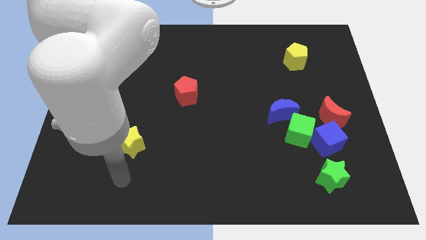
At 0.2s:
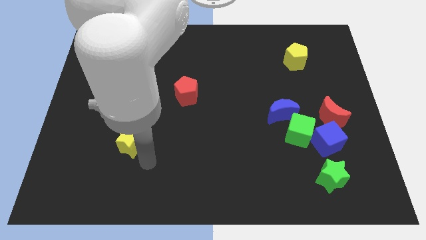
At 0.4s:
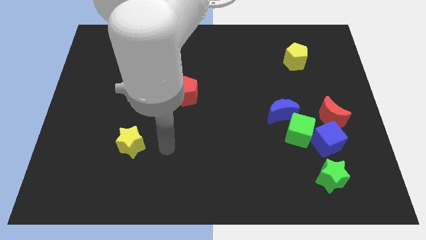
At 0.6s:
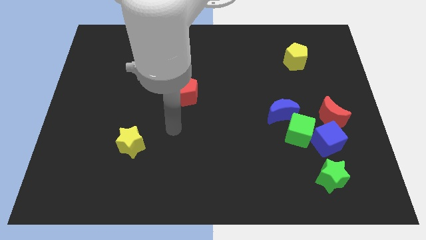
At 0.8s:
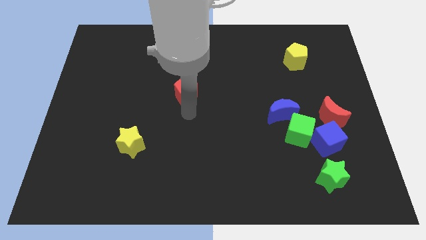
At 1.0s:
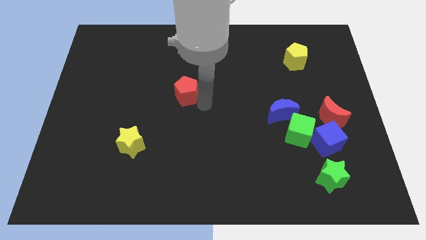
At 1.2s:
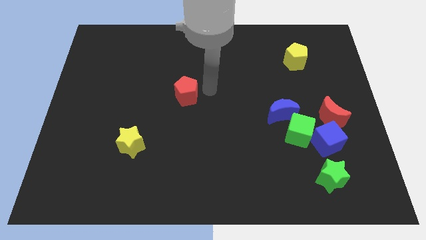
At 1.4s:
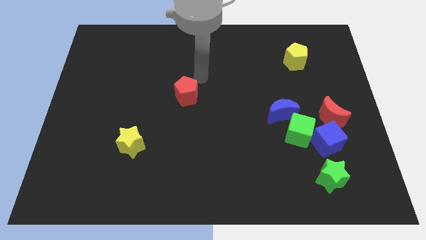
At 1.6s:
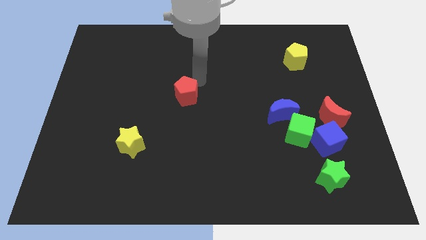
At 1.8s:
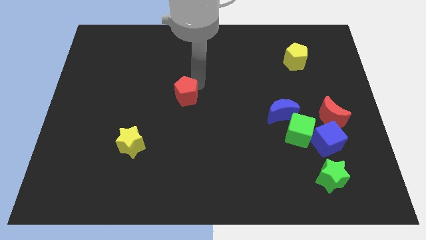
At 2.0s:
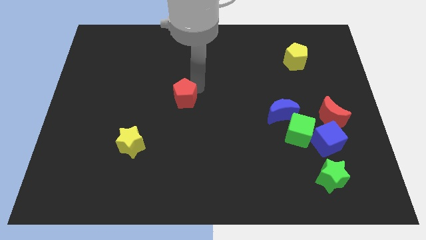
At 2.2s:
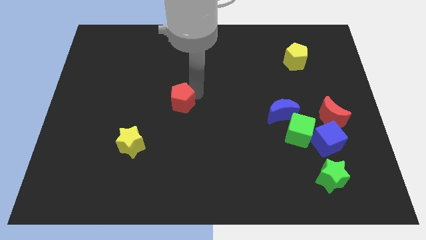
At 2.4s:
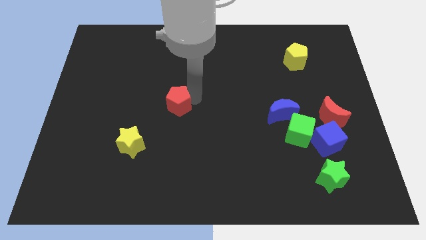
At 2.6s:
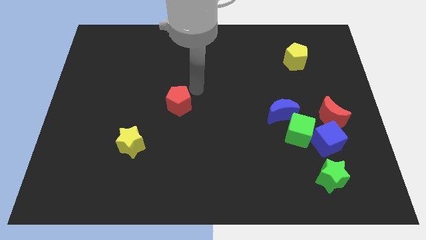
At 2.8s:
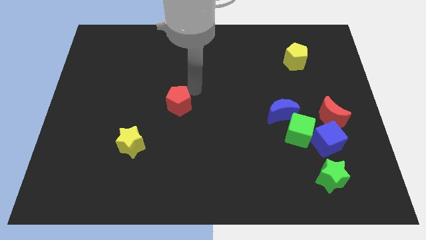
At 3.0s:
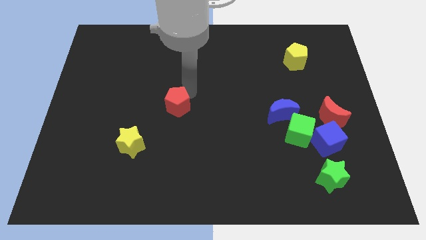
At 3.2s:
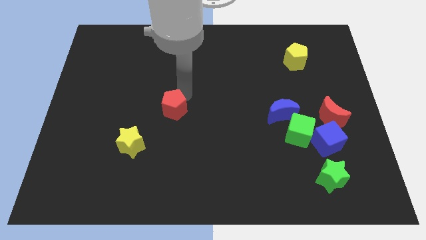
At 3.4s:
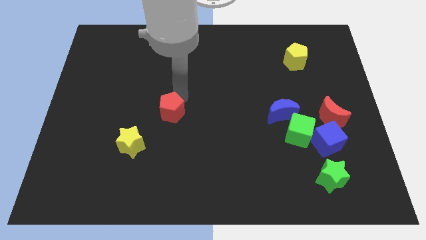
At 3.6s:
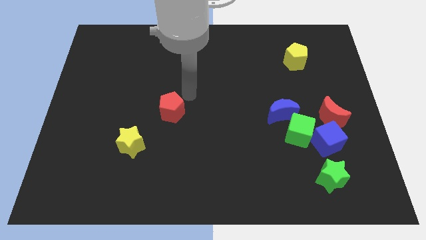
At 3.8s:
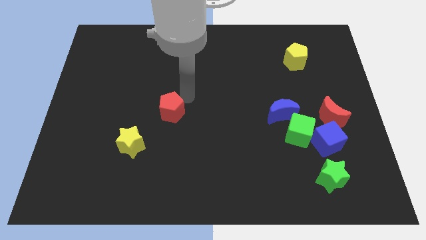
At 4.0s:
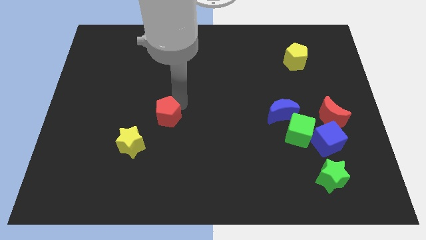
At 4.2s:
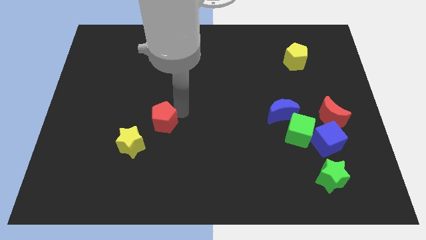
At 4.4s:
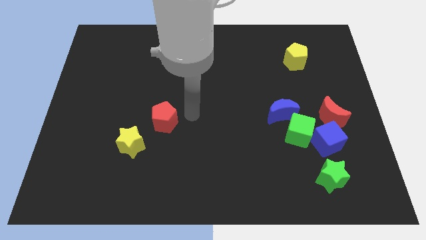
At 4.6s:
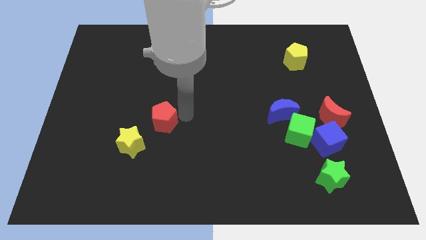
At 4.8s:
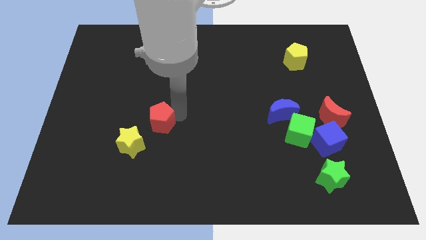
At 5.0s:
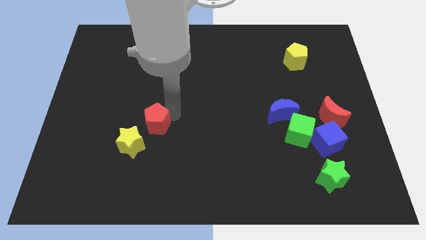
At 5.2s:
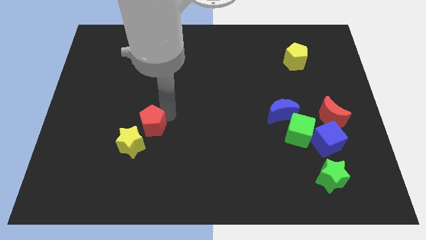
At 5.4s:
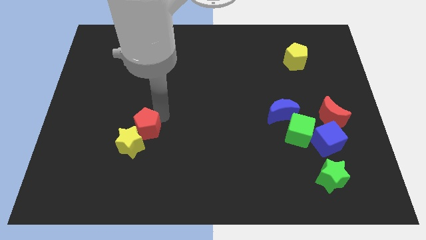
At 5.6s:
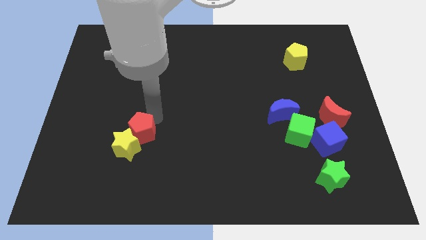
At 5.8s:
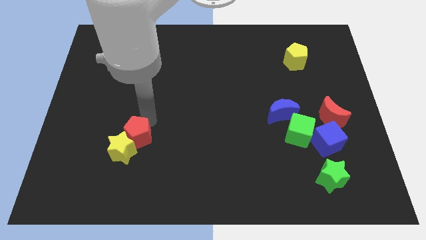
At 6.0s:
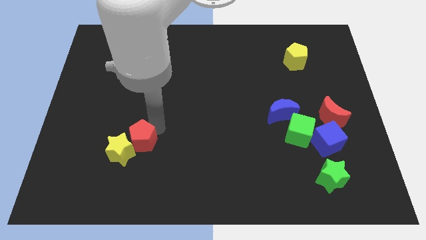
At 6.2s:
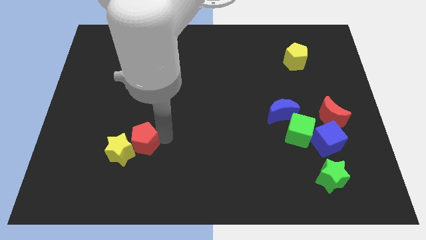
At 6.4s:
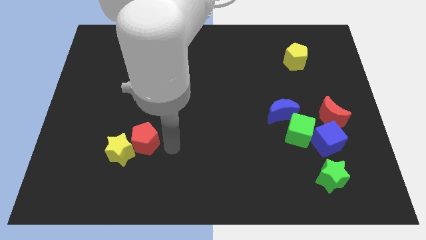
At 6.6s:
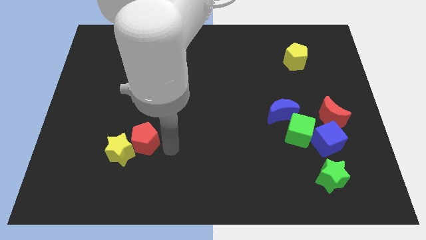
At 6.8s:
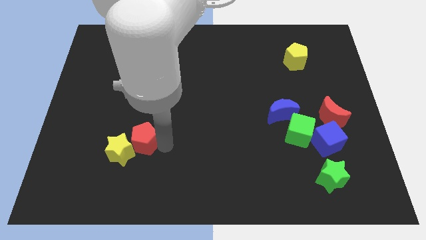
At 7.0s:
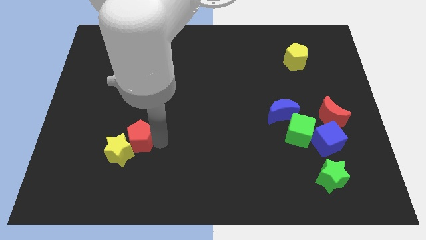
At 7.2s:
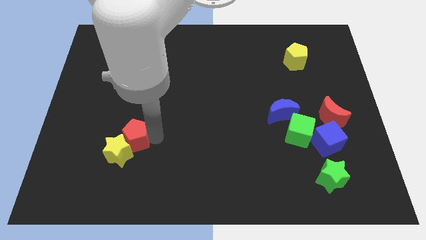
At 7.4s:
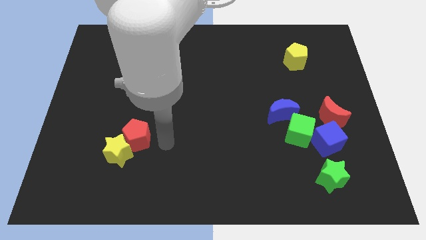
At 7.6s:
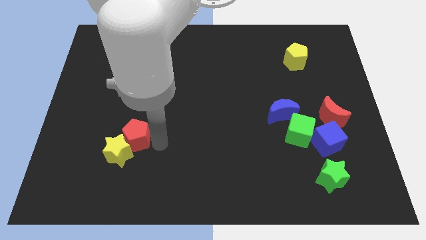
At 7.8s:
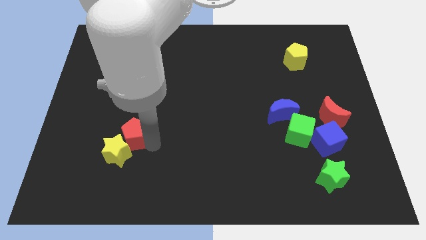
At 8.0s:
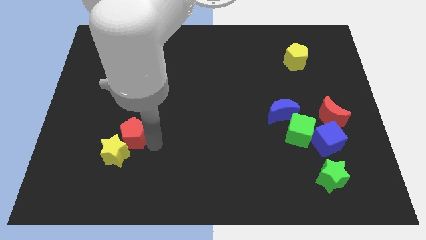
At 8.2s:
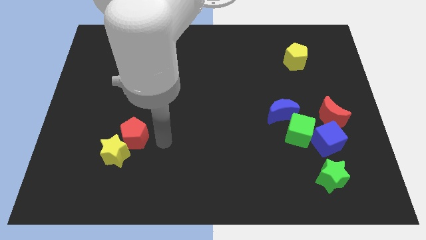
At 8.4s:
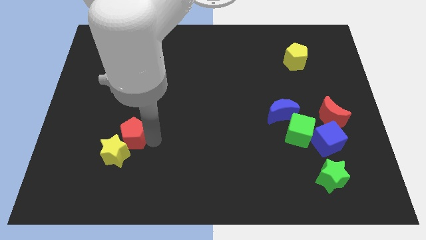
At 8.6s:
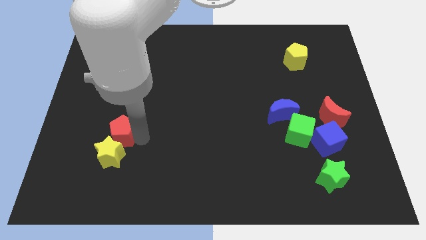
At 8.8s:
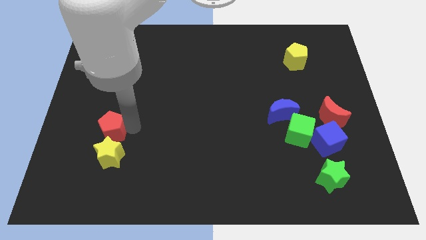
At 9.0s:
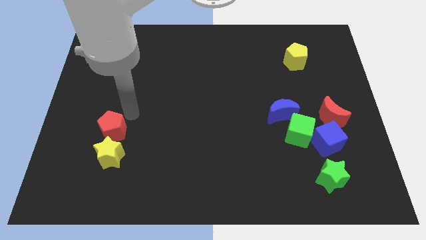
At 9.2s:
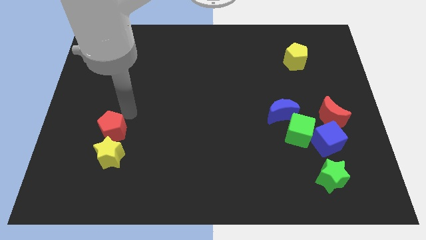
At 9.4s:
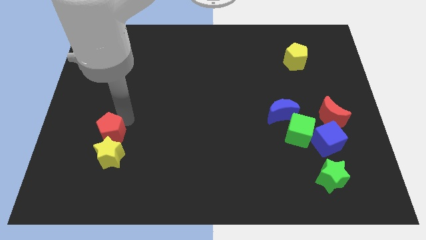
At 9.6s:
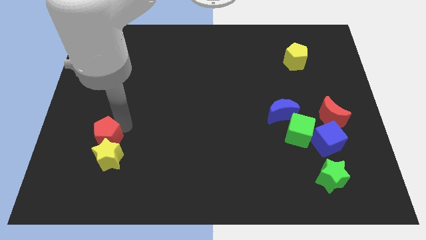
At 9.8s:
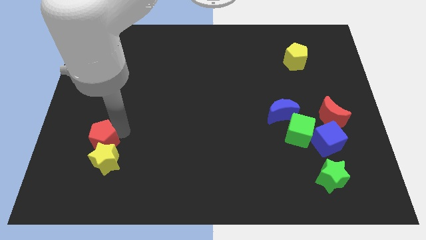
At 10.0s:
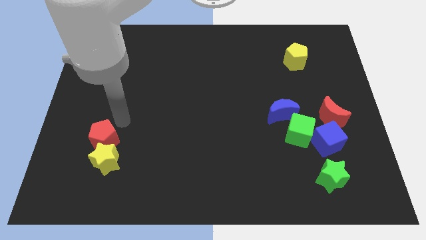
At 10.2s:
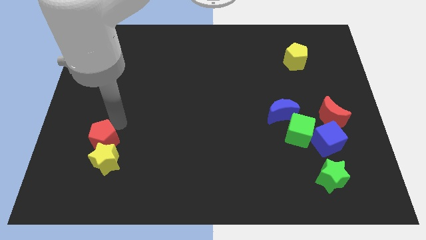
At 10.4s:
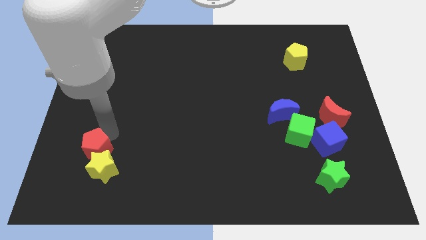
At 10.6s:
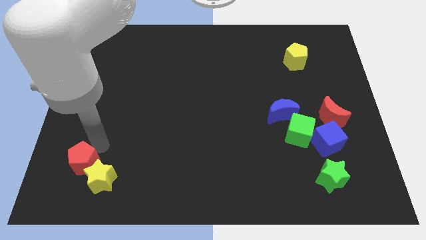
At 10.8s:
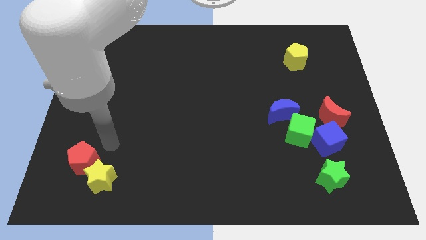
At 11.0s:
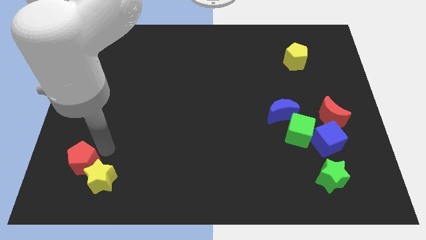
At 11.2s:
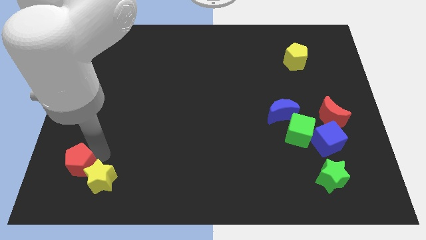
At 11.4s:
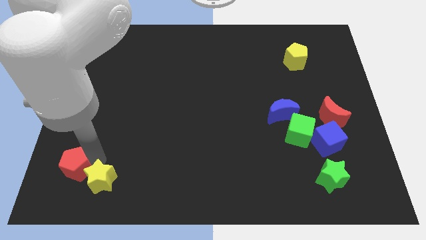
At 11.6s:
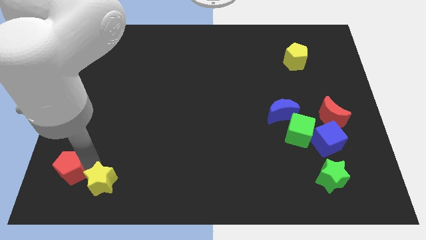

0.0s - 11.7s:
push the red pentagon to the lower left corner

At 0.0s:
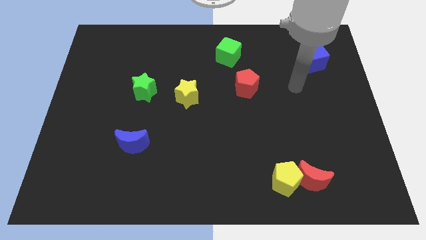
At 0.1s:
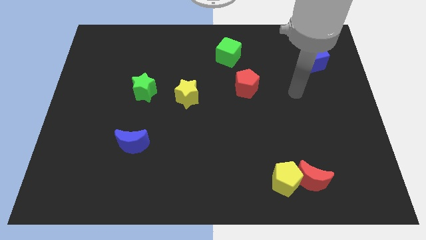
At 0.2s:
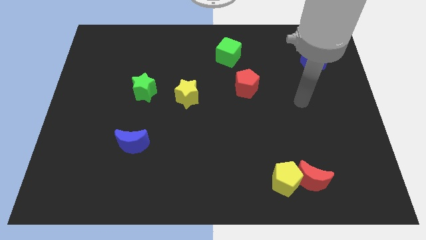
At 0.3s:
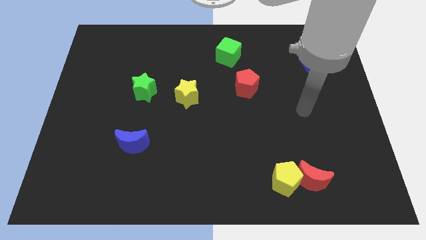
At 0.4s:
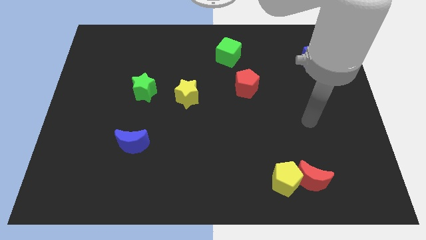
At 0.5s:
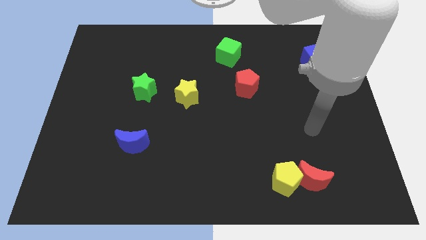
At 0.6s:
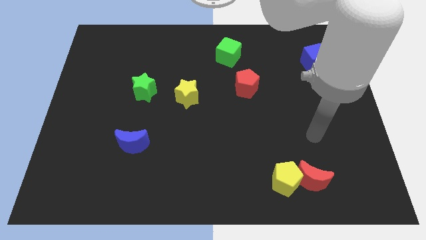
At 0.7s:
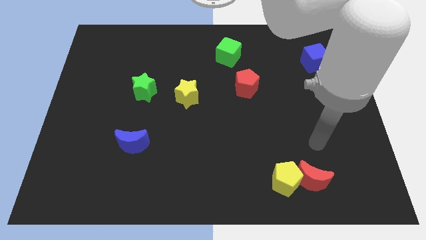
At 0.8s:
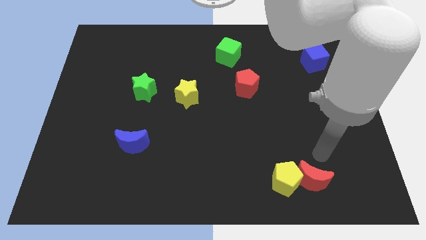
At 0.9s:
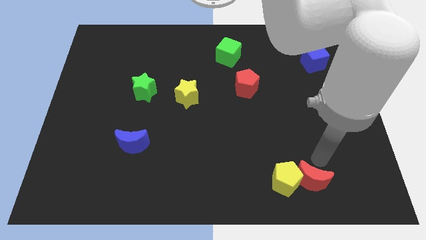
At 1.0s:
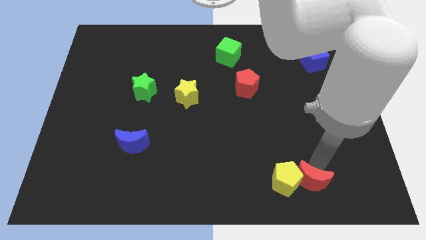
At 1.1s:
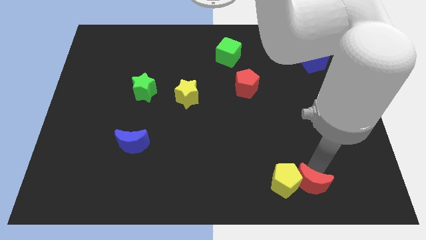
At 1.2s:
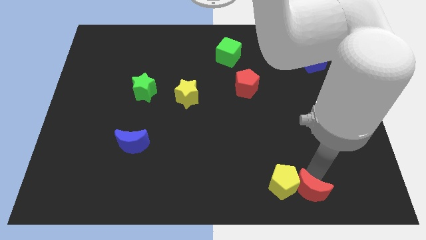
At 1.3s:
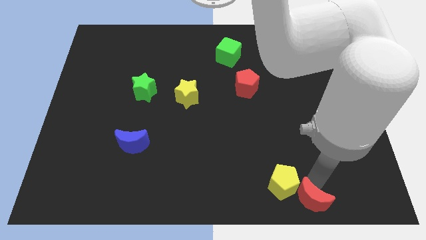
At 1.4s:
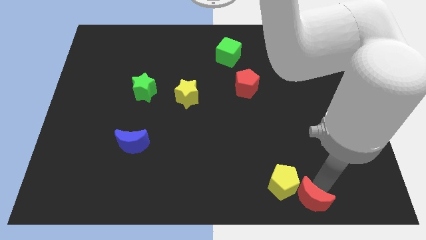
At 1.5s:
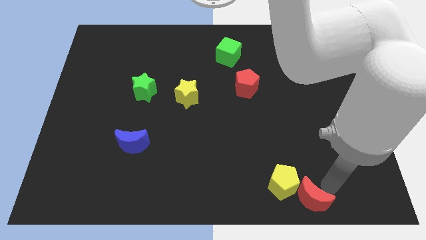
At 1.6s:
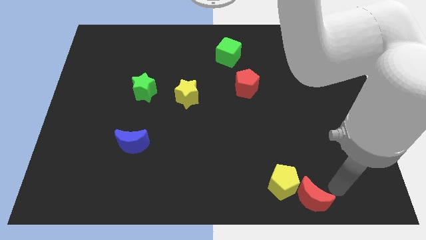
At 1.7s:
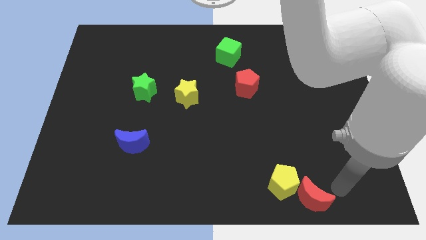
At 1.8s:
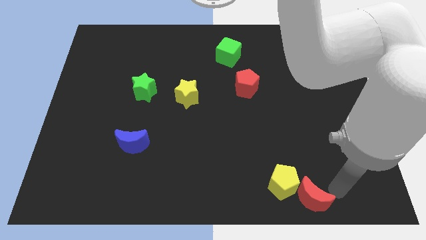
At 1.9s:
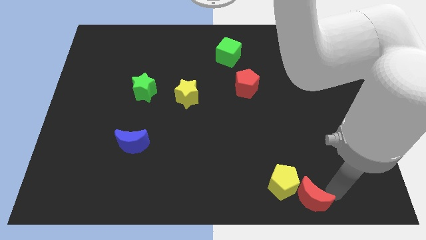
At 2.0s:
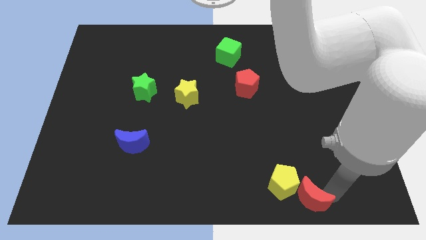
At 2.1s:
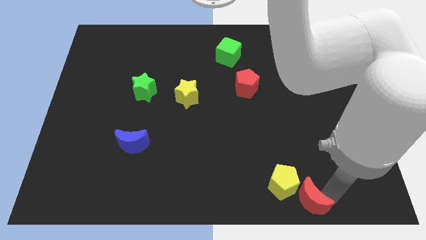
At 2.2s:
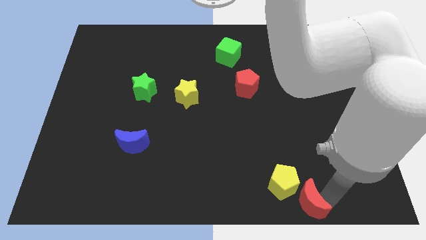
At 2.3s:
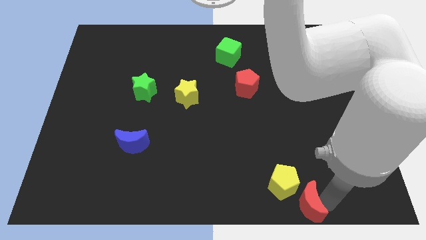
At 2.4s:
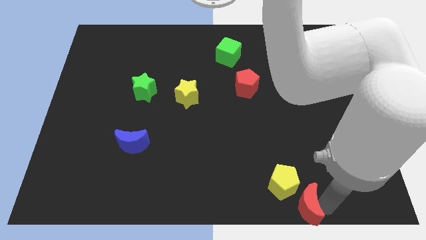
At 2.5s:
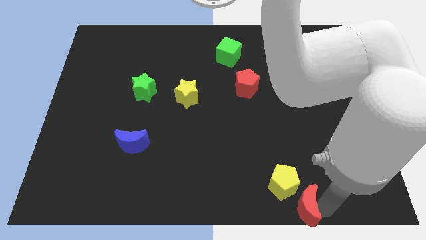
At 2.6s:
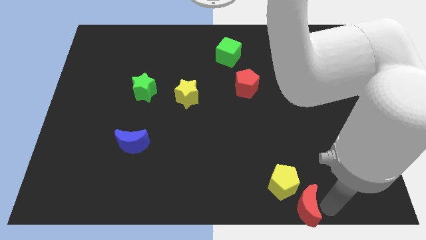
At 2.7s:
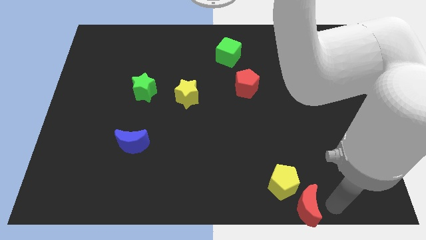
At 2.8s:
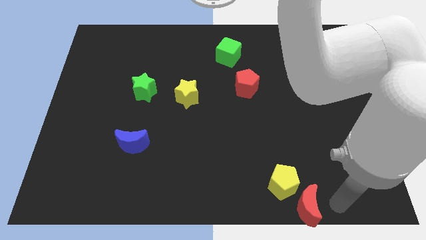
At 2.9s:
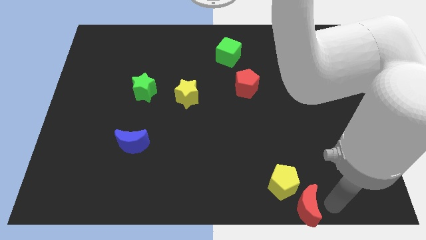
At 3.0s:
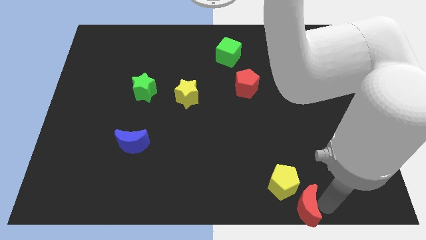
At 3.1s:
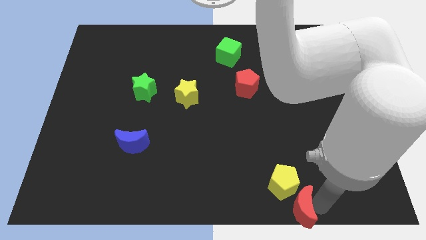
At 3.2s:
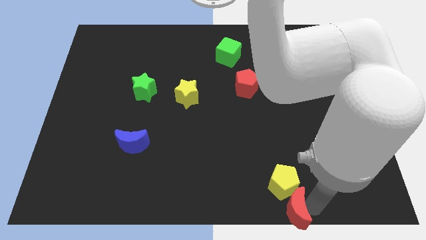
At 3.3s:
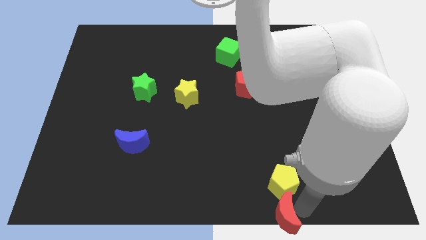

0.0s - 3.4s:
slide the red moon to the bottom side
